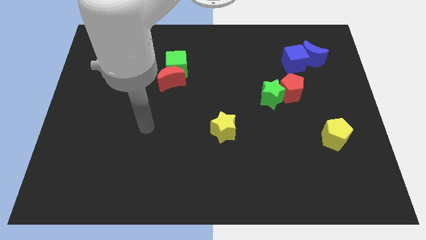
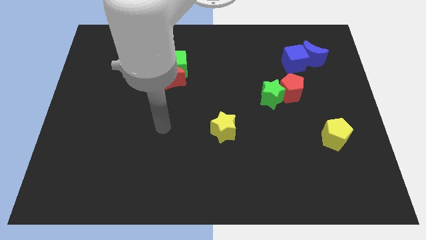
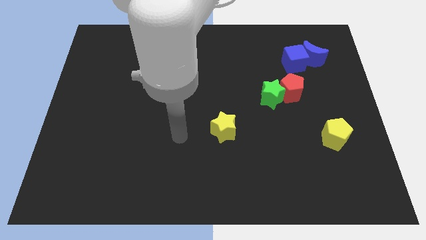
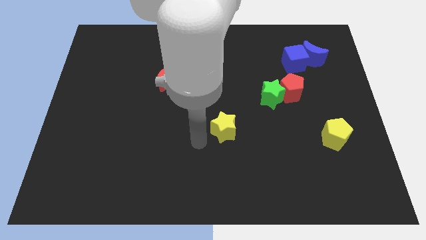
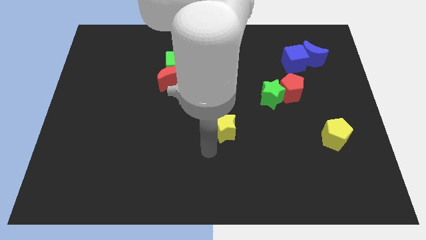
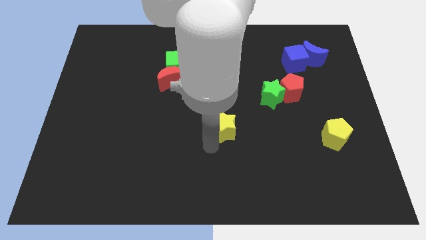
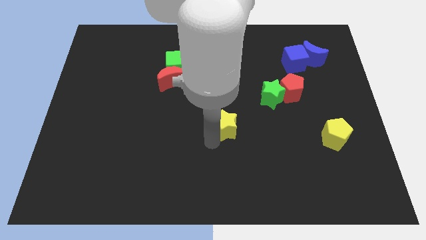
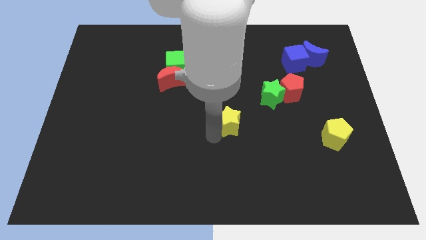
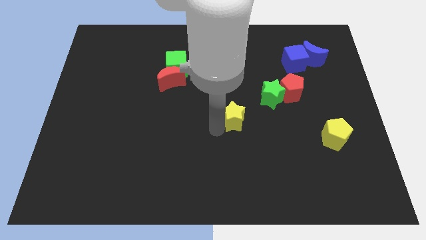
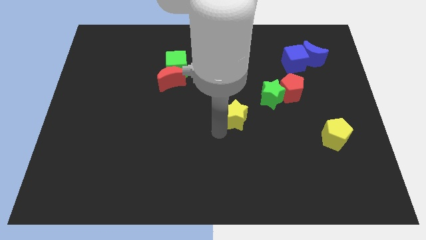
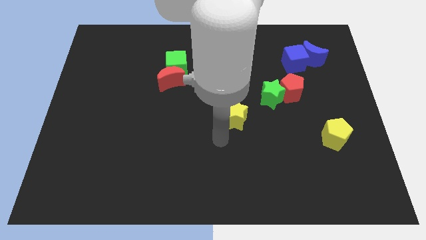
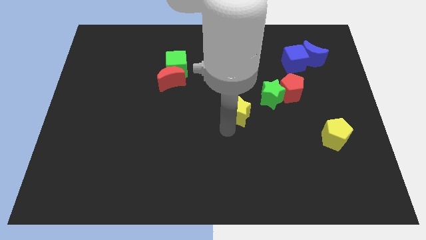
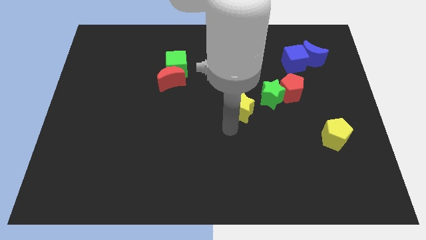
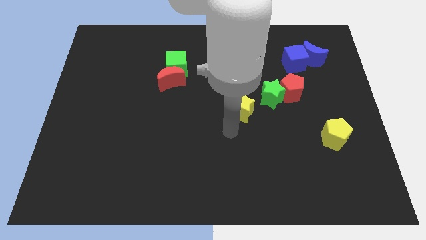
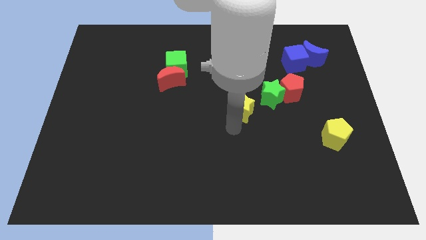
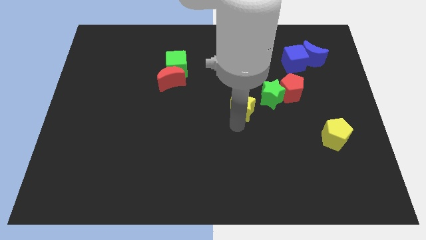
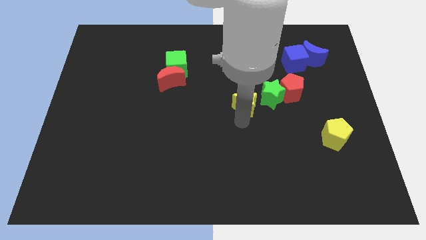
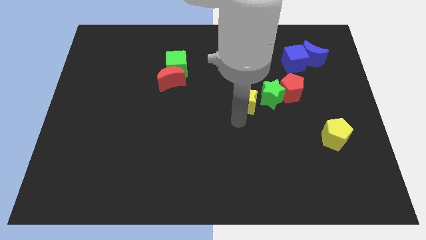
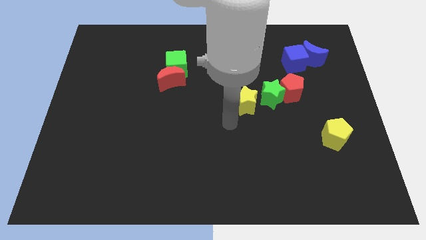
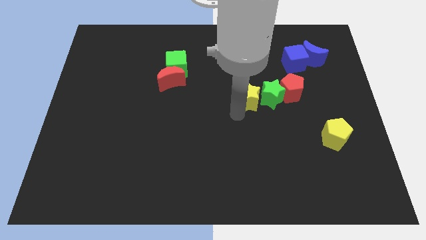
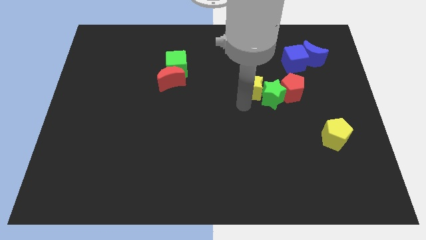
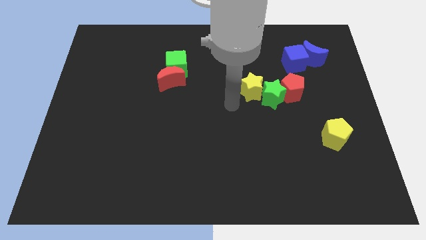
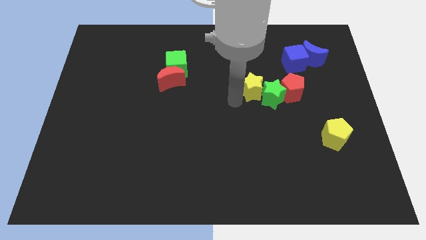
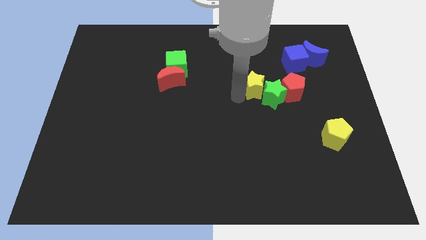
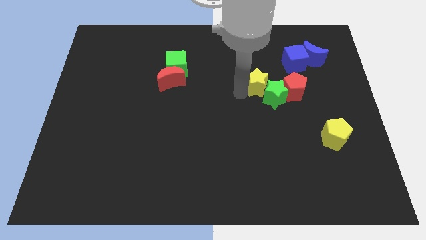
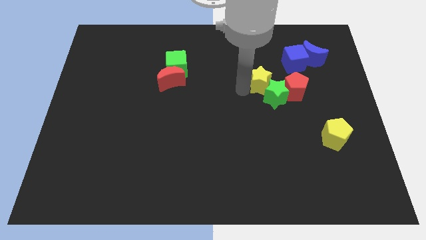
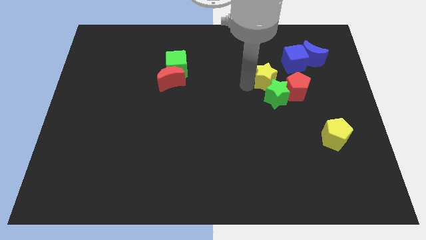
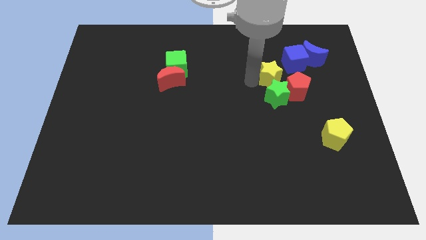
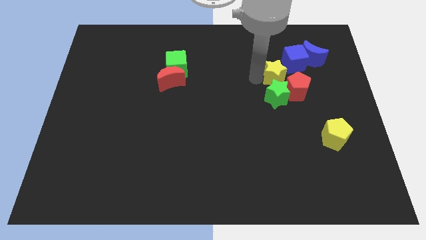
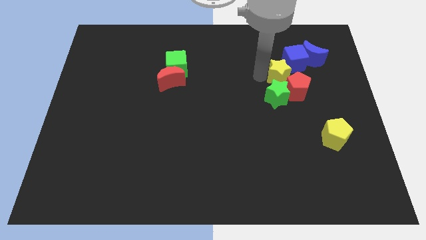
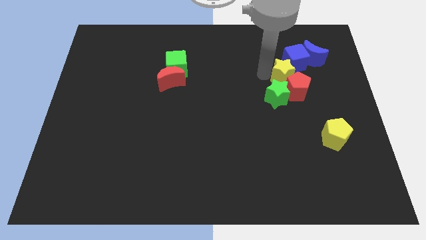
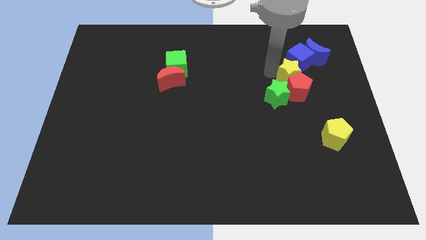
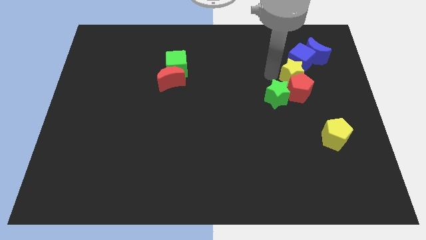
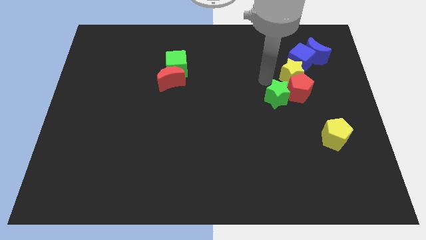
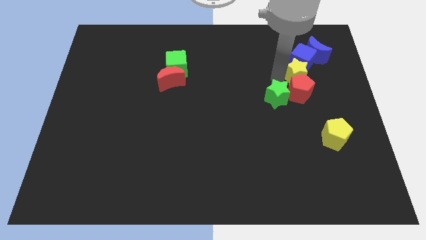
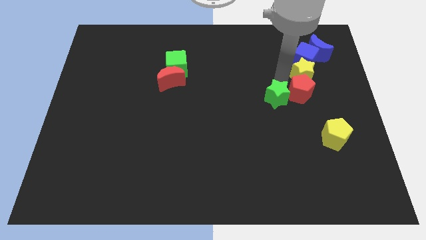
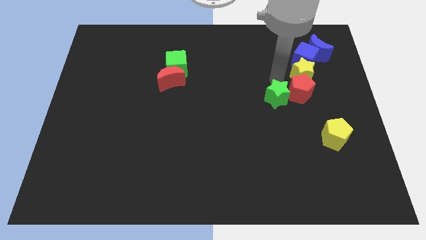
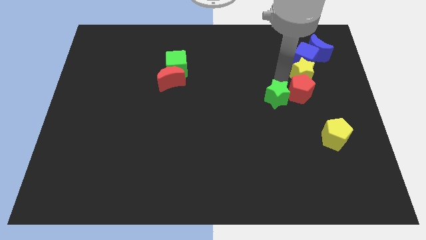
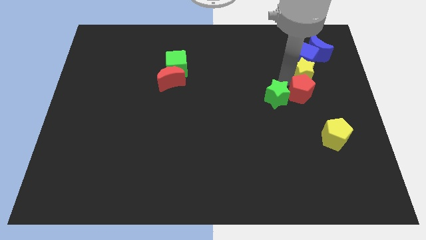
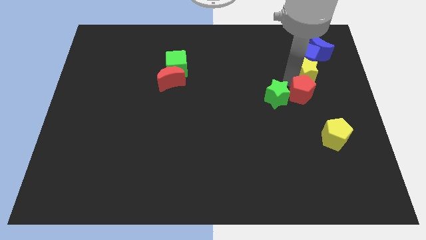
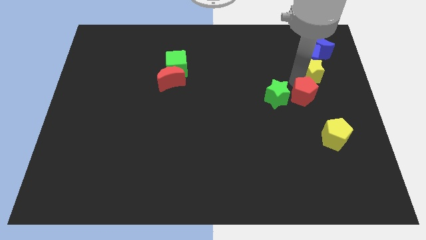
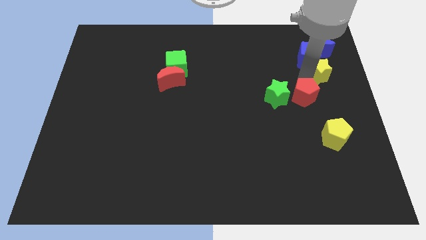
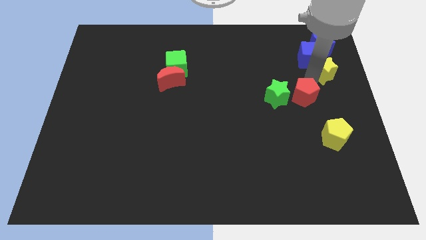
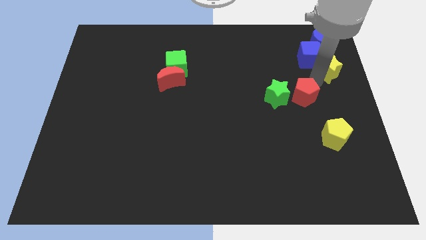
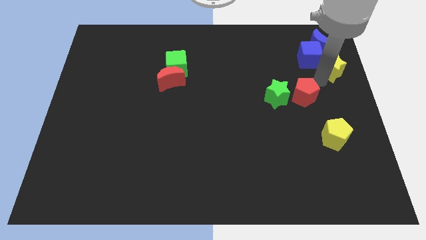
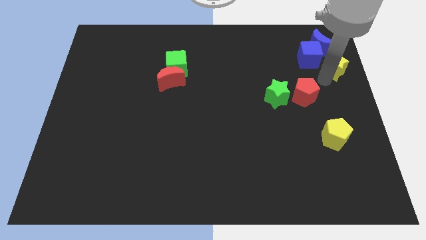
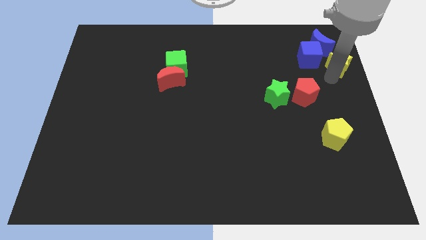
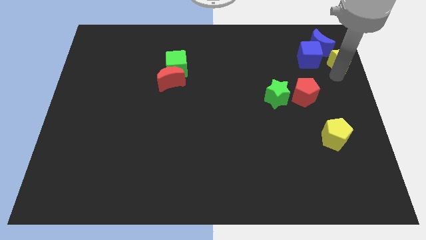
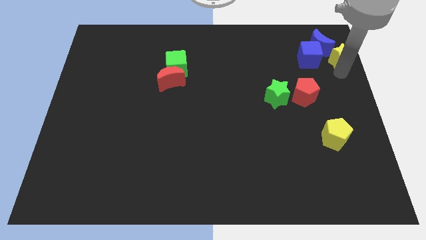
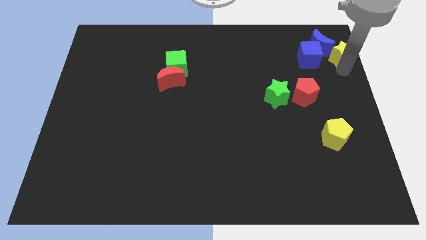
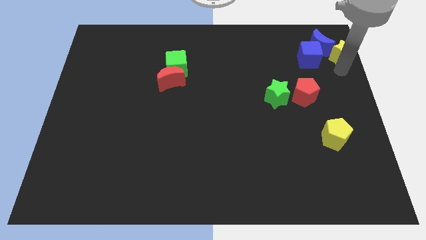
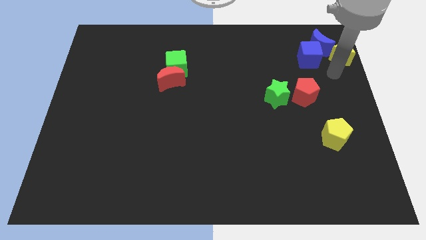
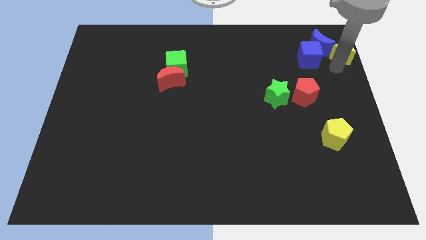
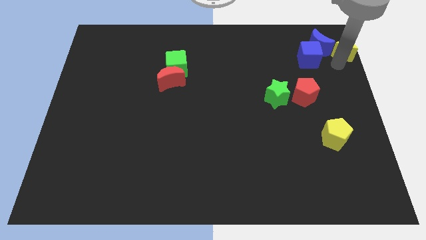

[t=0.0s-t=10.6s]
push the yellow star to the top right

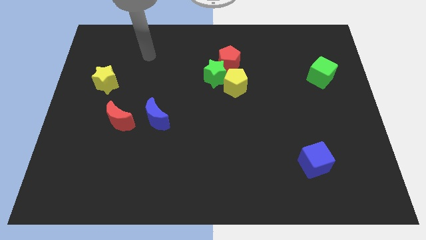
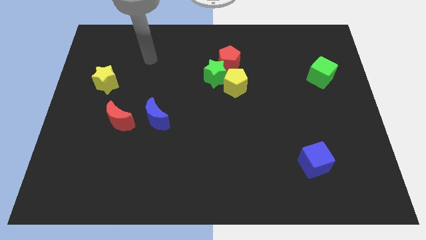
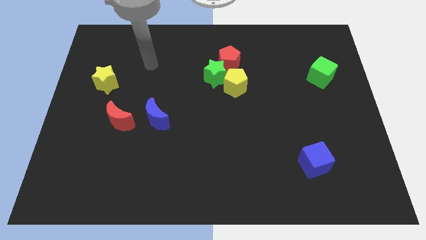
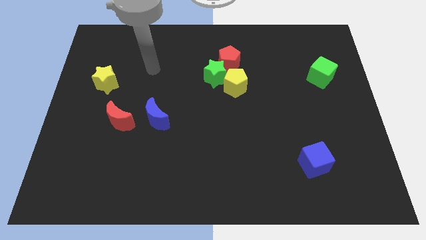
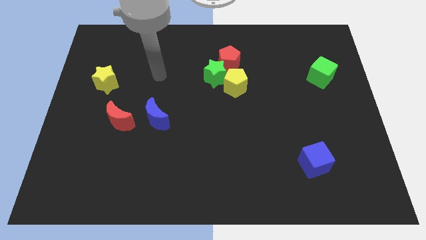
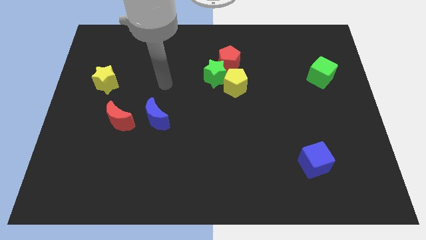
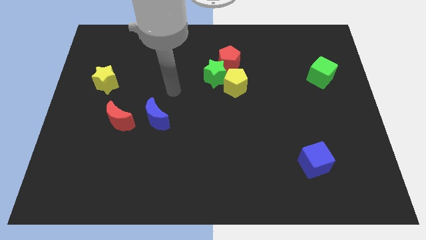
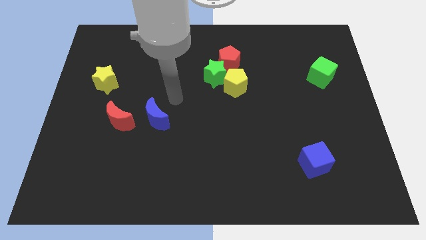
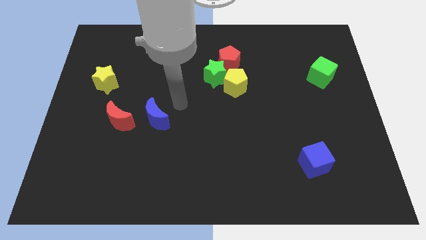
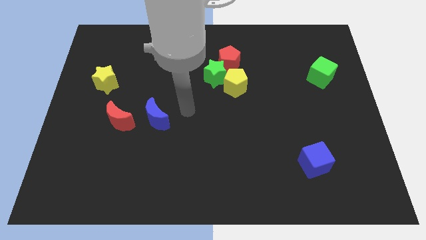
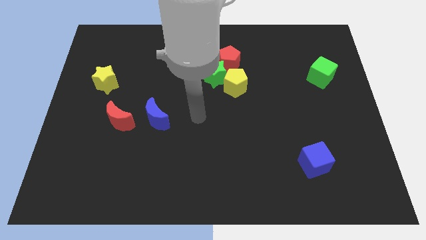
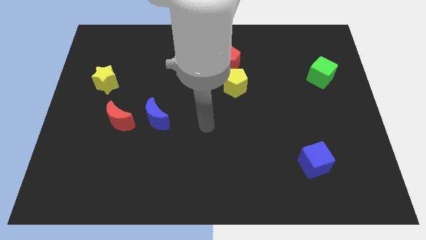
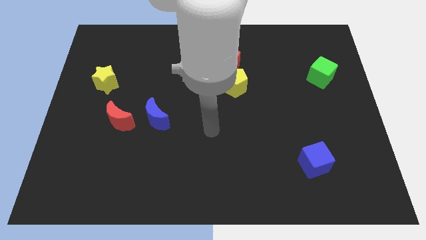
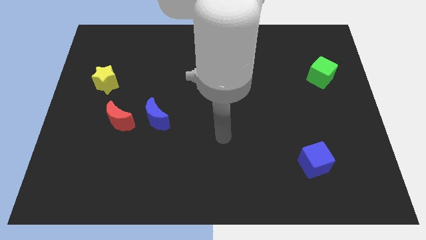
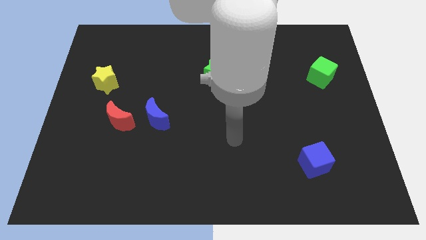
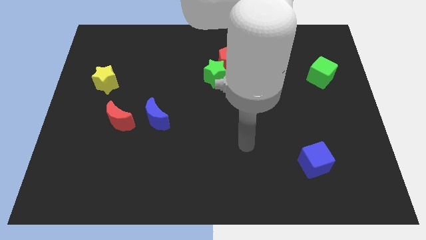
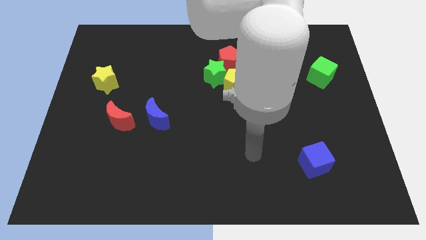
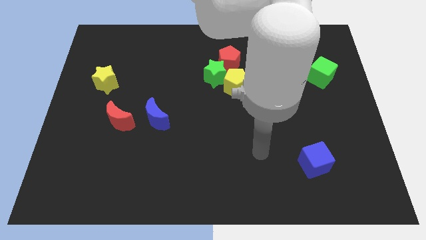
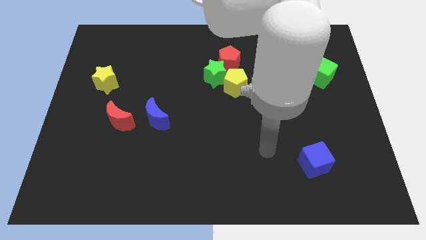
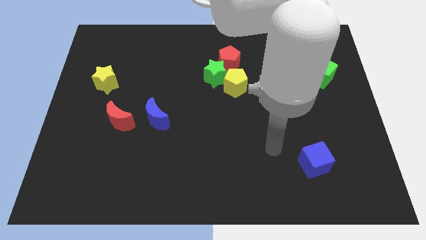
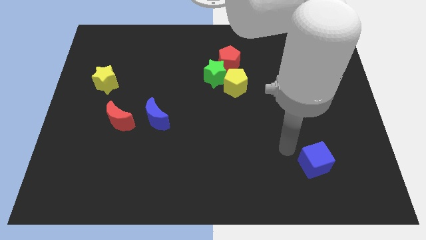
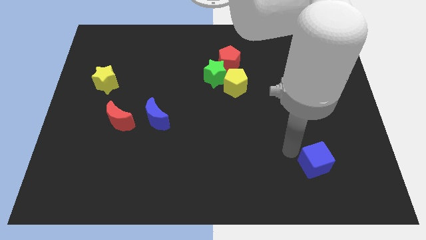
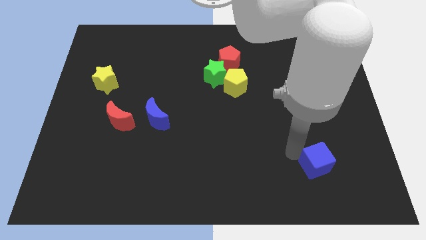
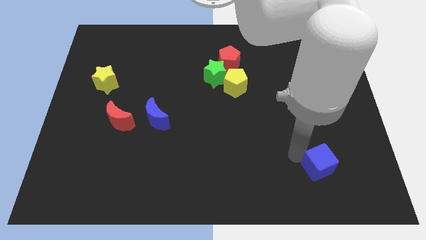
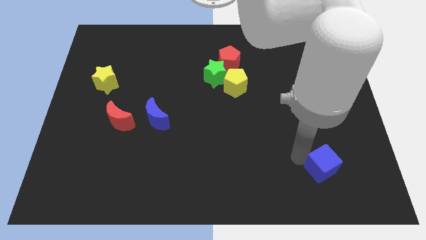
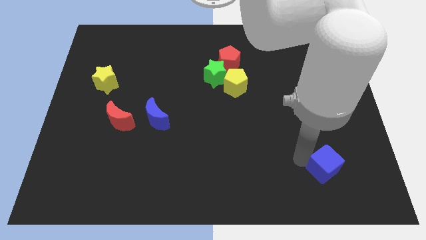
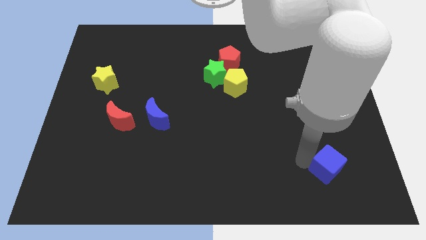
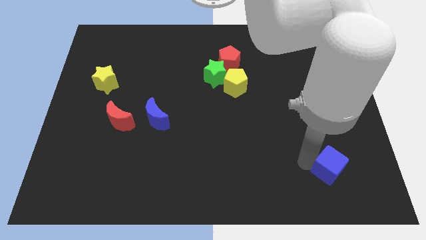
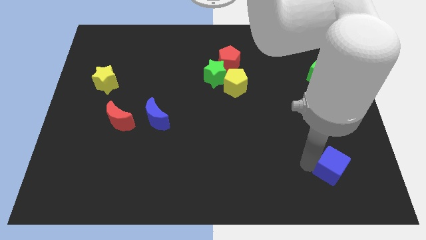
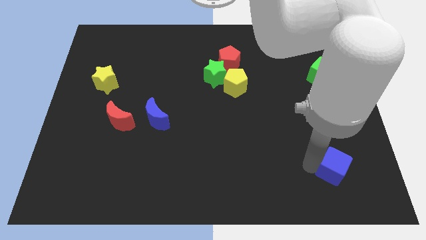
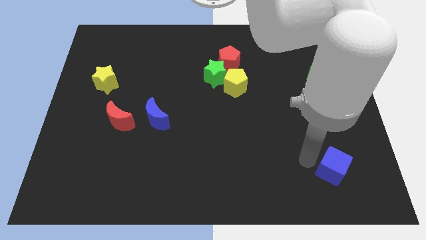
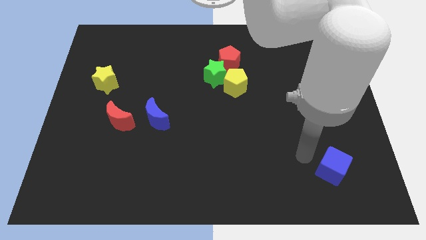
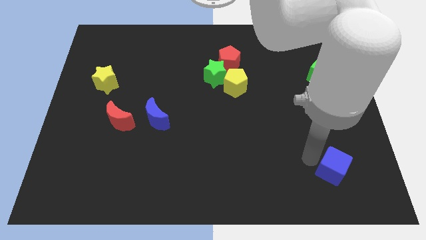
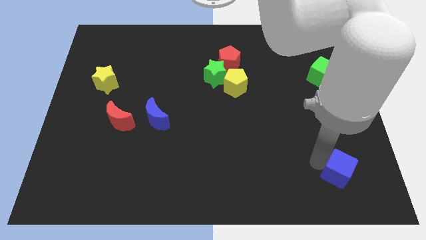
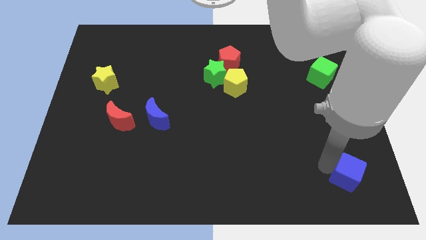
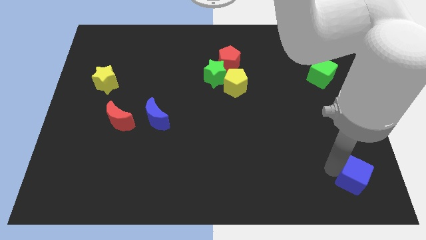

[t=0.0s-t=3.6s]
move the blue cube to the bottom right corner
